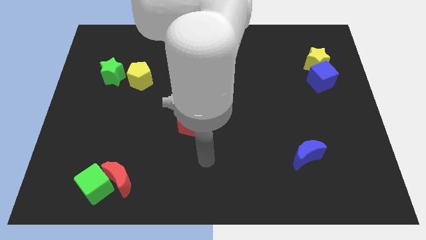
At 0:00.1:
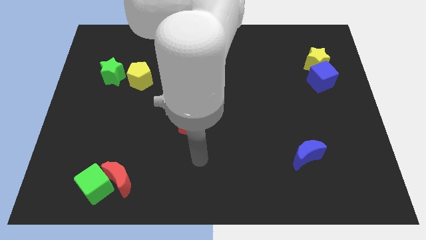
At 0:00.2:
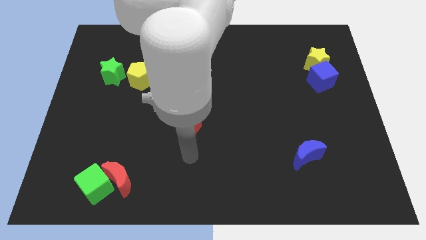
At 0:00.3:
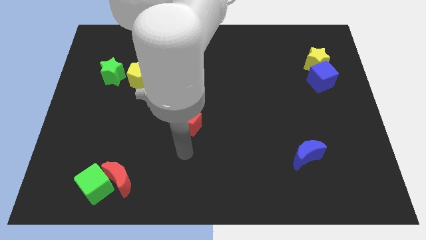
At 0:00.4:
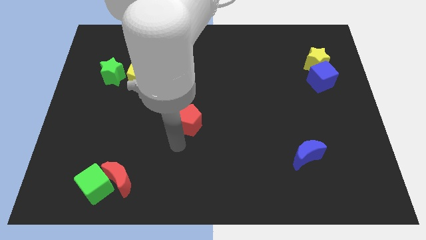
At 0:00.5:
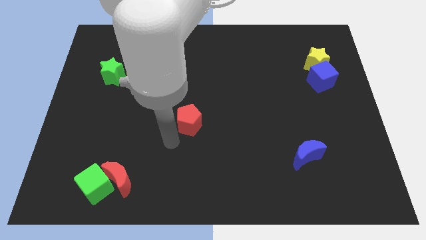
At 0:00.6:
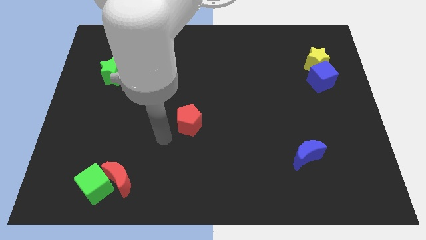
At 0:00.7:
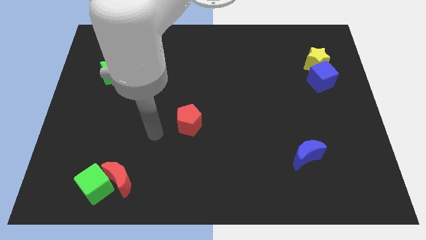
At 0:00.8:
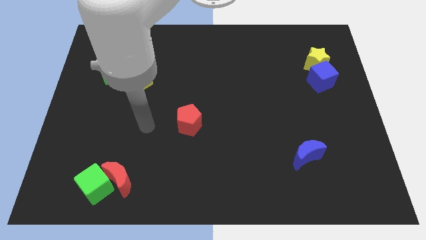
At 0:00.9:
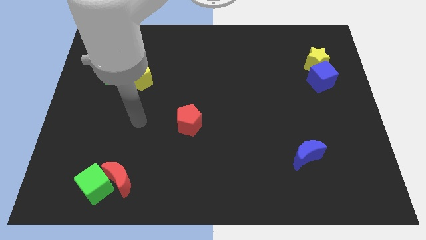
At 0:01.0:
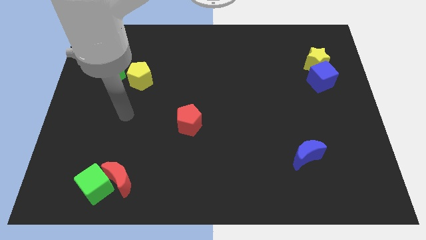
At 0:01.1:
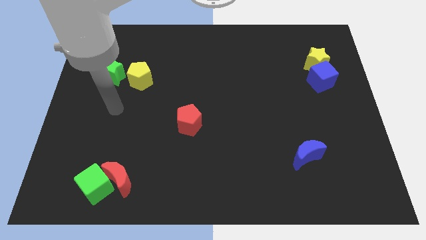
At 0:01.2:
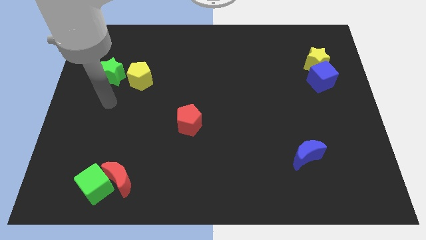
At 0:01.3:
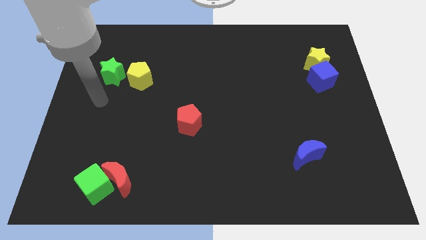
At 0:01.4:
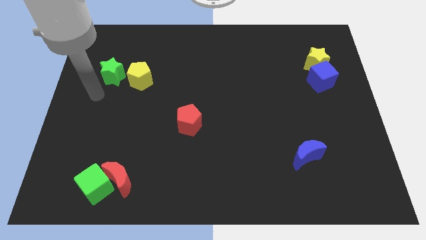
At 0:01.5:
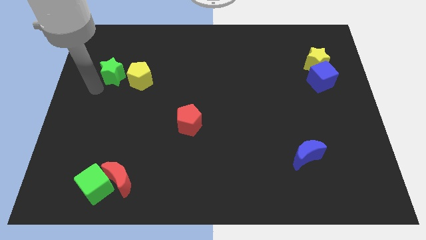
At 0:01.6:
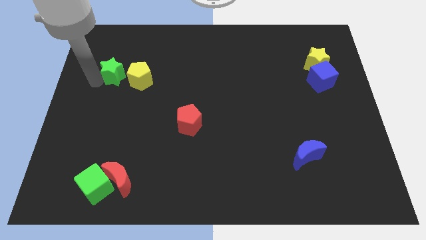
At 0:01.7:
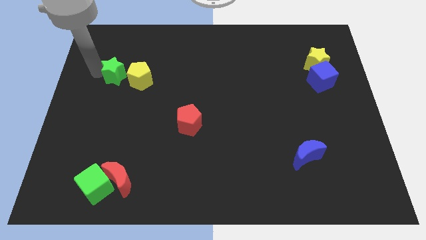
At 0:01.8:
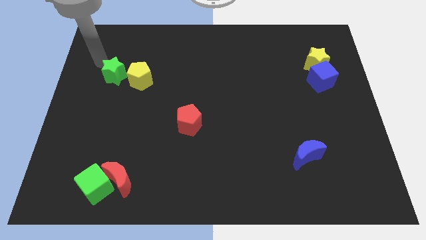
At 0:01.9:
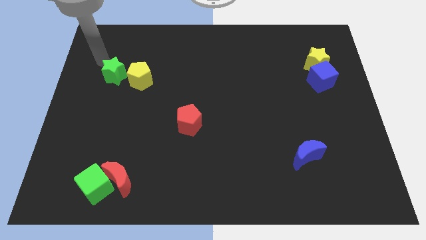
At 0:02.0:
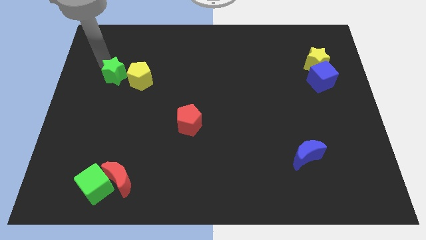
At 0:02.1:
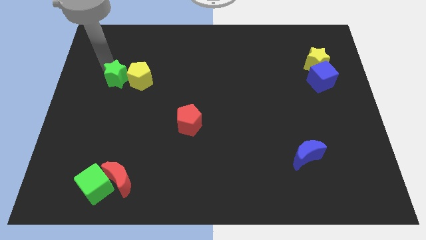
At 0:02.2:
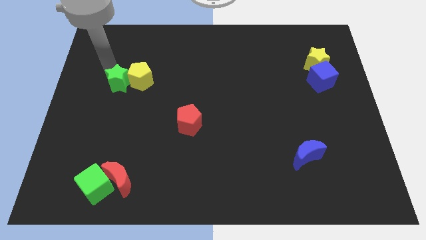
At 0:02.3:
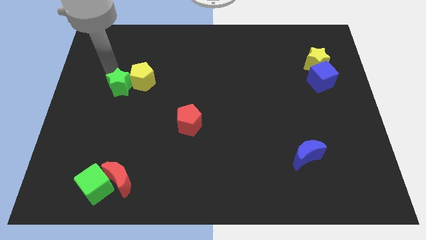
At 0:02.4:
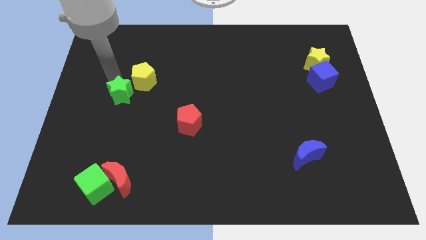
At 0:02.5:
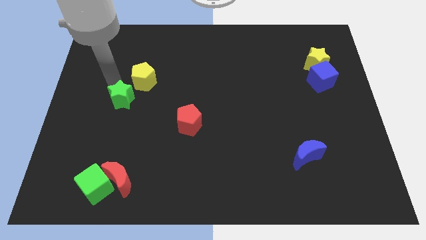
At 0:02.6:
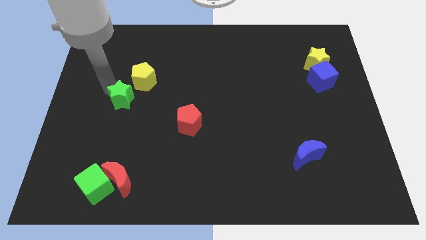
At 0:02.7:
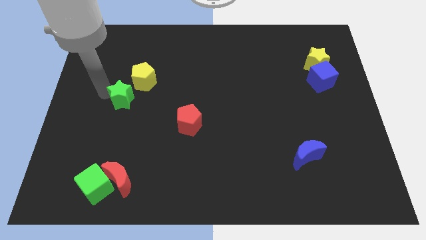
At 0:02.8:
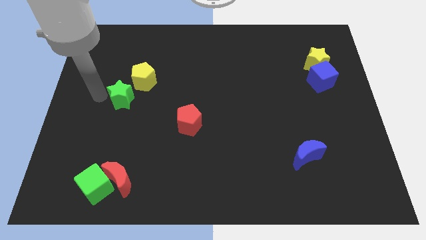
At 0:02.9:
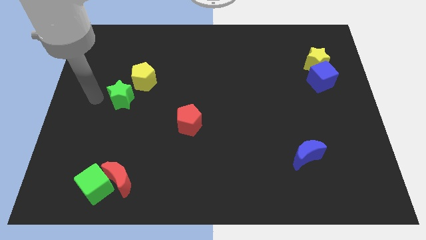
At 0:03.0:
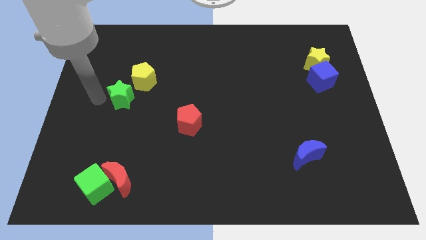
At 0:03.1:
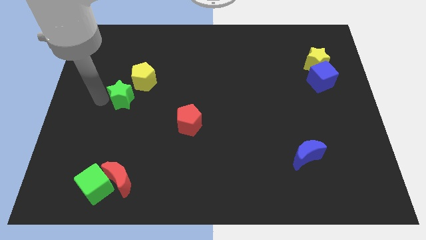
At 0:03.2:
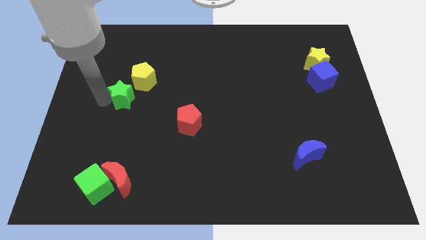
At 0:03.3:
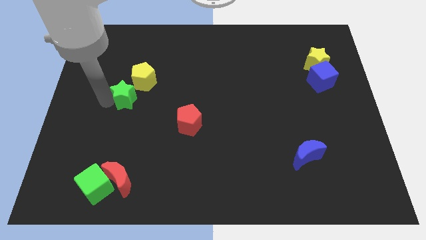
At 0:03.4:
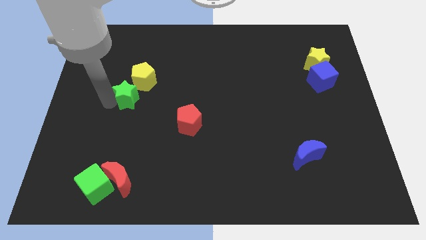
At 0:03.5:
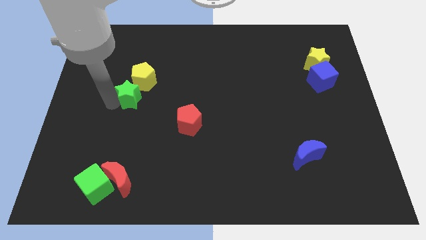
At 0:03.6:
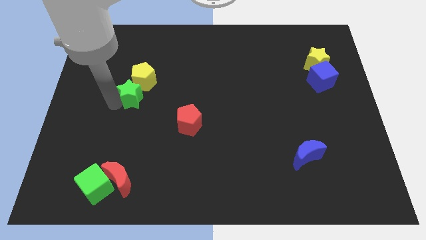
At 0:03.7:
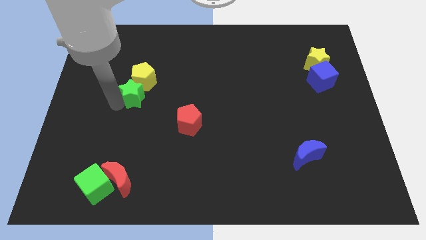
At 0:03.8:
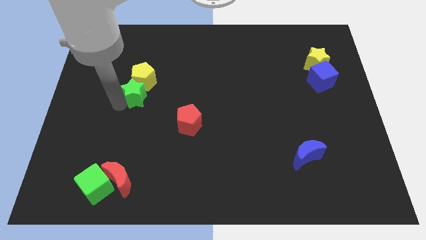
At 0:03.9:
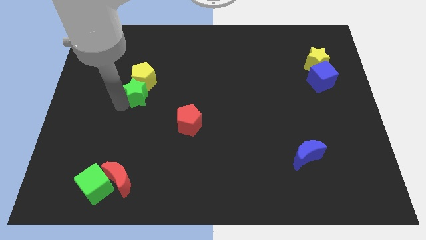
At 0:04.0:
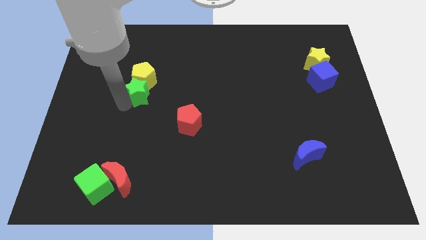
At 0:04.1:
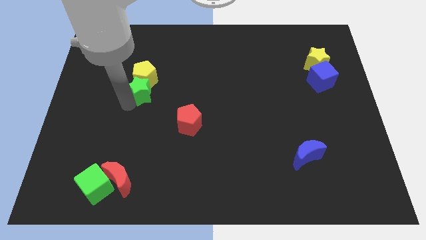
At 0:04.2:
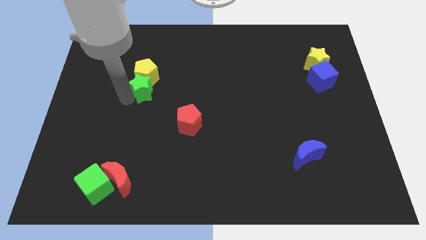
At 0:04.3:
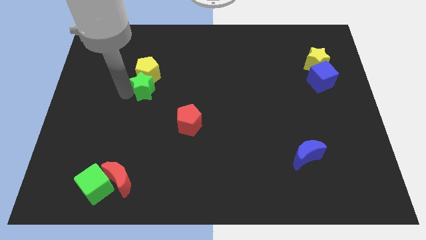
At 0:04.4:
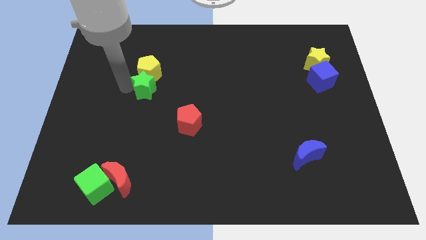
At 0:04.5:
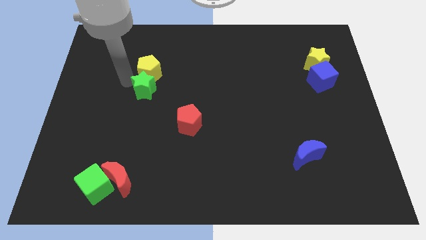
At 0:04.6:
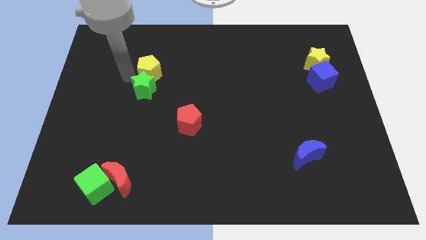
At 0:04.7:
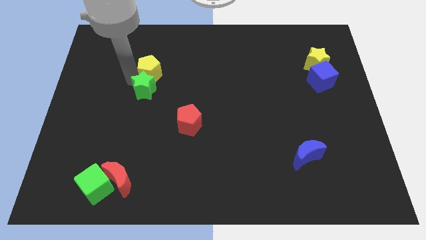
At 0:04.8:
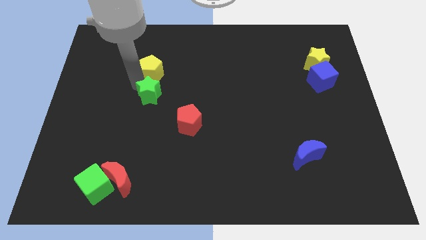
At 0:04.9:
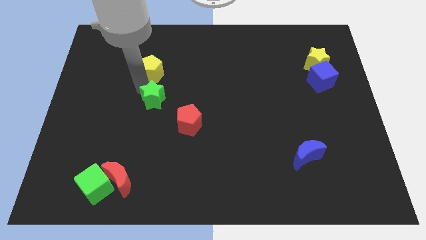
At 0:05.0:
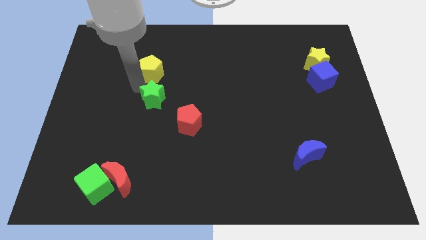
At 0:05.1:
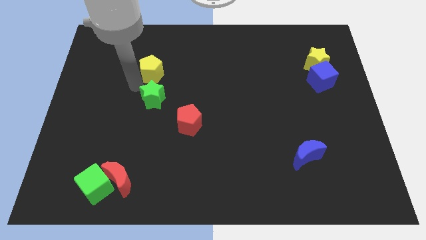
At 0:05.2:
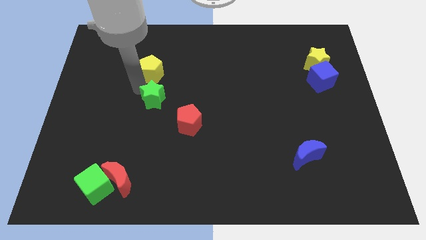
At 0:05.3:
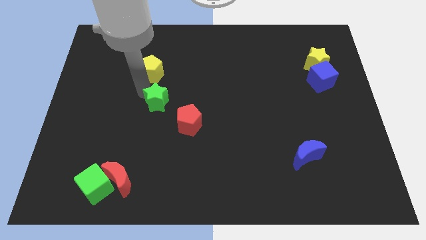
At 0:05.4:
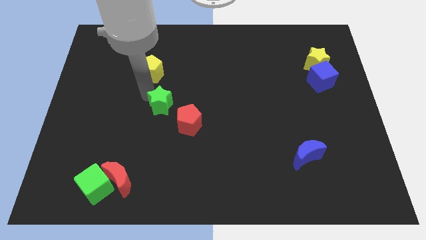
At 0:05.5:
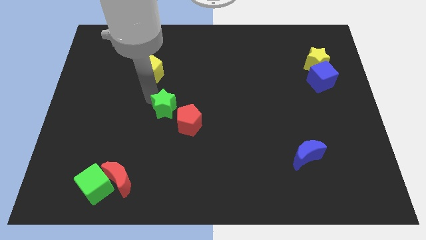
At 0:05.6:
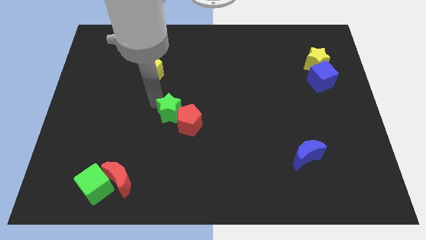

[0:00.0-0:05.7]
push the green star towards the red pentagon
